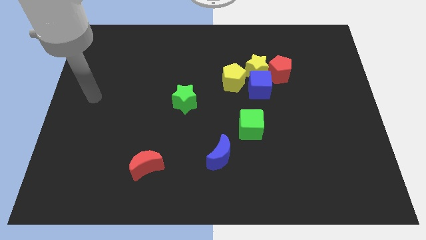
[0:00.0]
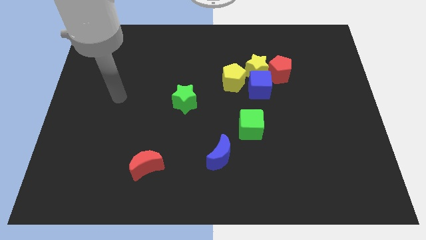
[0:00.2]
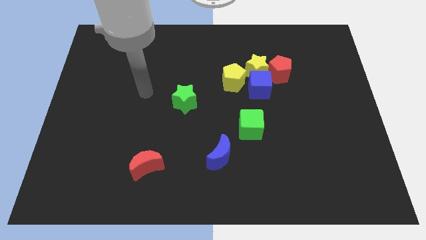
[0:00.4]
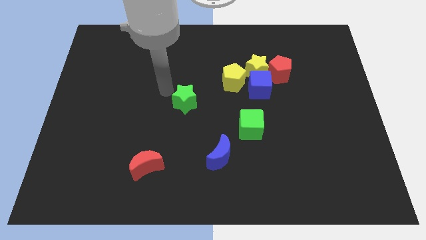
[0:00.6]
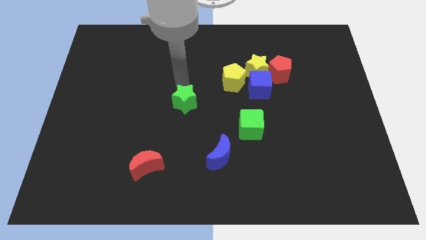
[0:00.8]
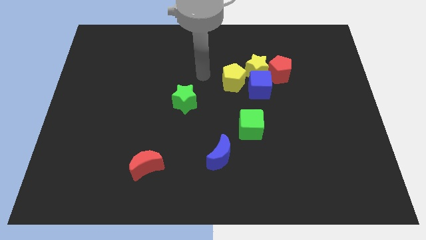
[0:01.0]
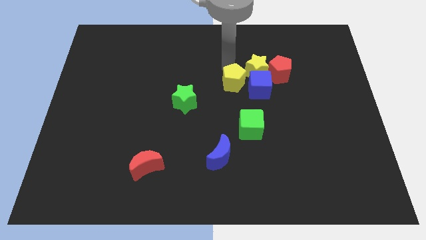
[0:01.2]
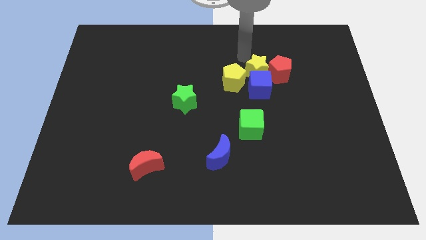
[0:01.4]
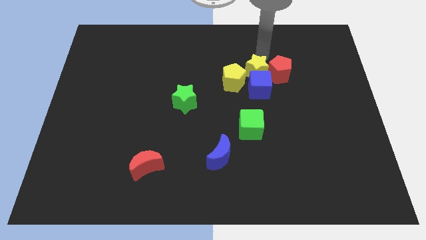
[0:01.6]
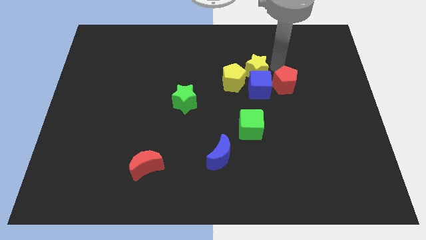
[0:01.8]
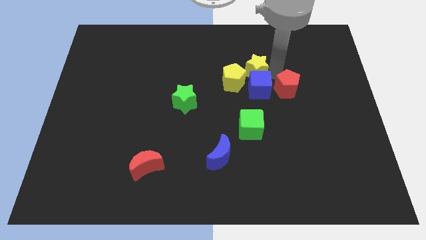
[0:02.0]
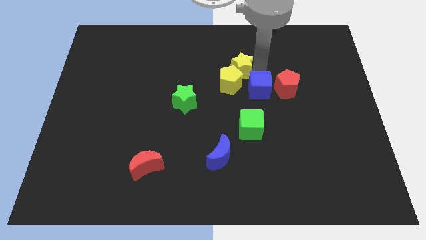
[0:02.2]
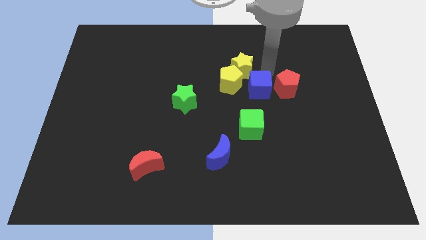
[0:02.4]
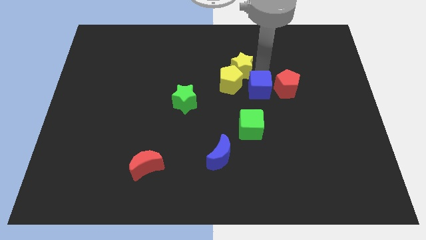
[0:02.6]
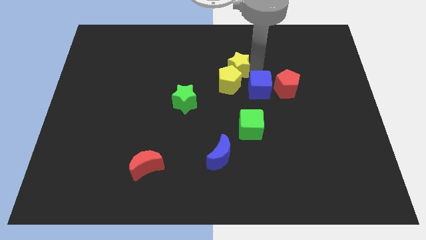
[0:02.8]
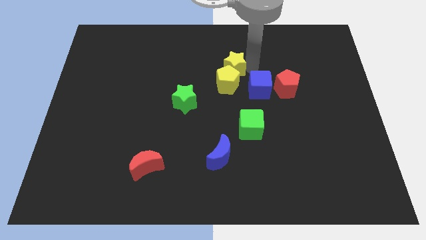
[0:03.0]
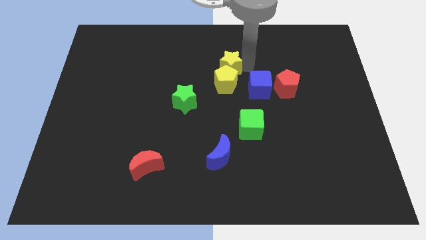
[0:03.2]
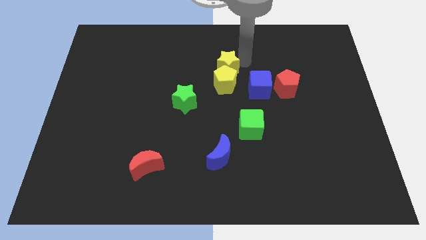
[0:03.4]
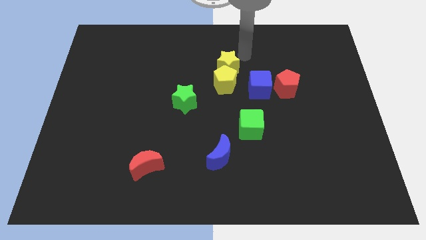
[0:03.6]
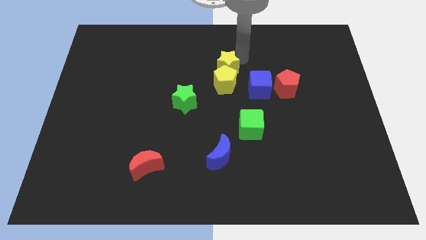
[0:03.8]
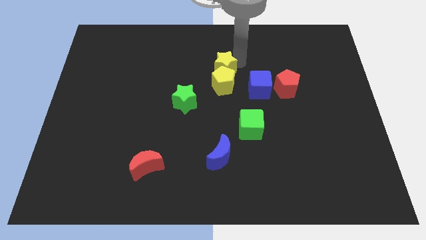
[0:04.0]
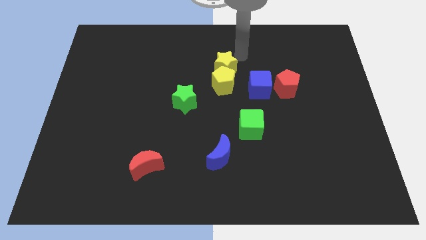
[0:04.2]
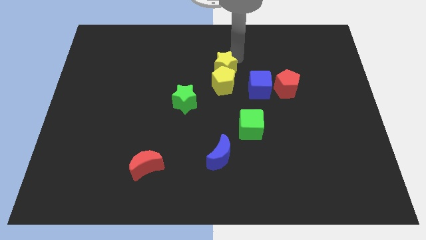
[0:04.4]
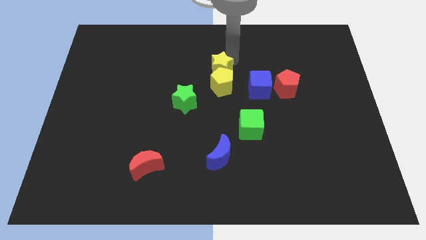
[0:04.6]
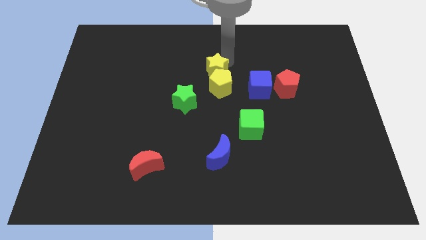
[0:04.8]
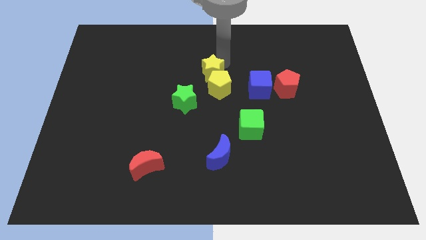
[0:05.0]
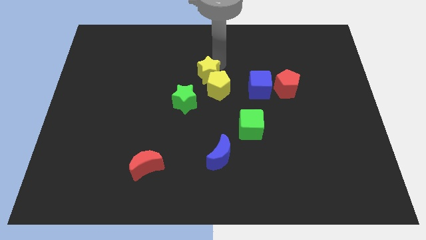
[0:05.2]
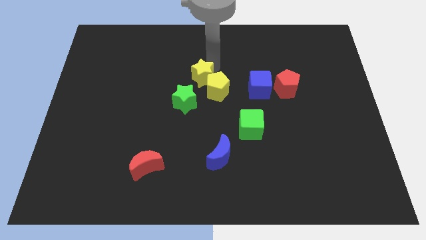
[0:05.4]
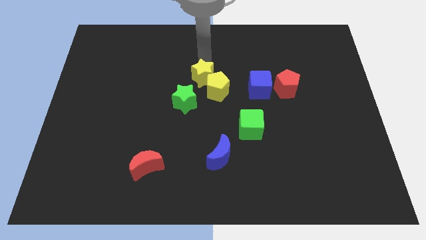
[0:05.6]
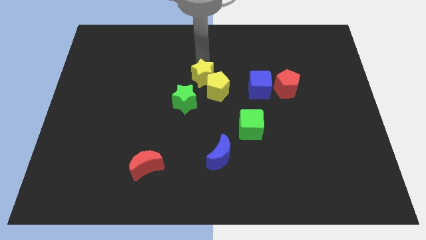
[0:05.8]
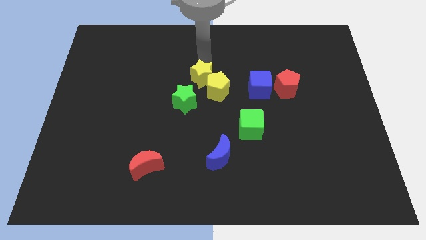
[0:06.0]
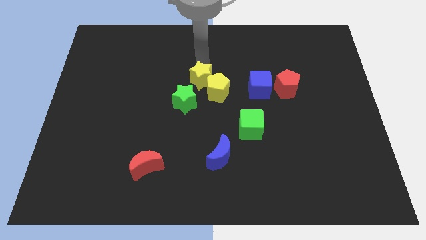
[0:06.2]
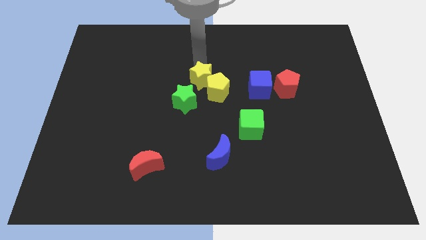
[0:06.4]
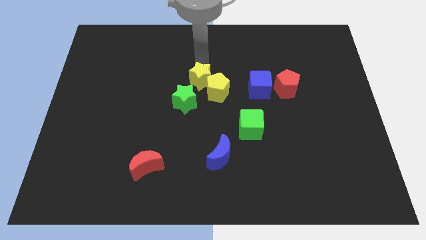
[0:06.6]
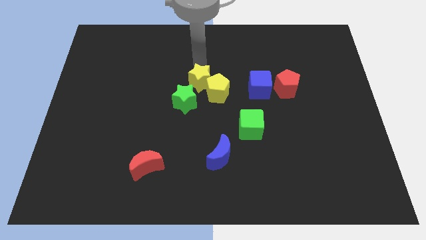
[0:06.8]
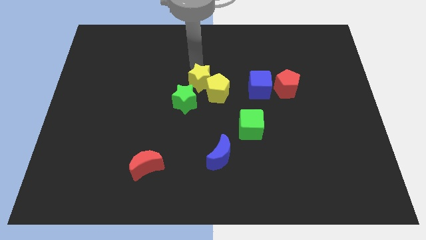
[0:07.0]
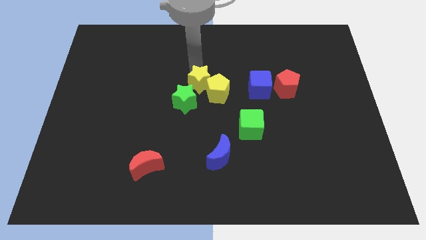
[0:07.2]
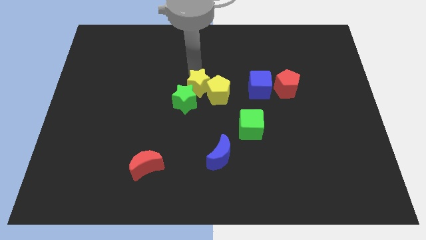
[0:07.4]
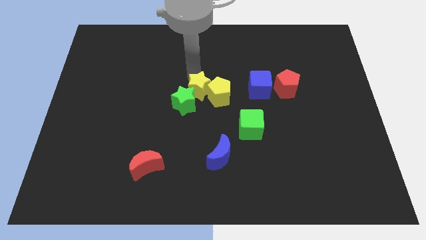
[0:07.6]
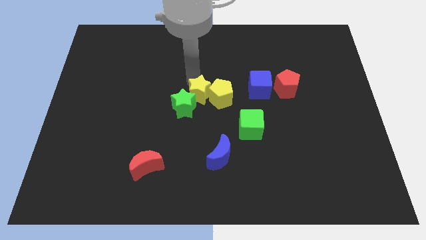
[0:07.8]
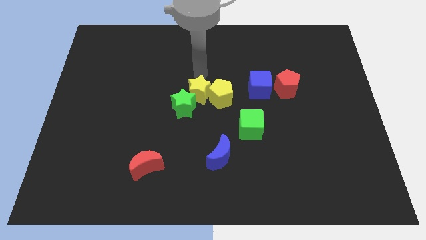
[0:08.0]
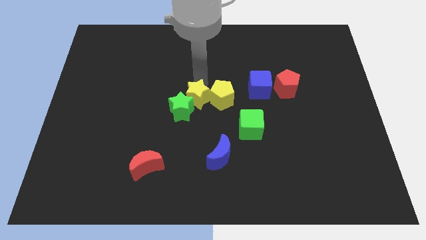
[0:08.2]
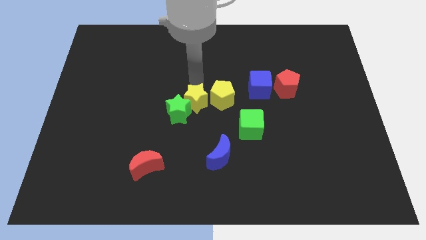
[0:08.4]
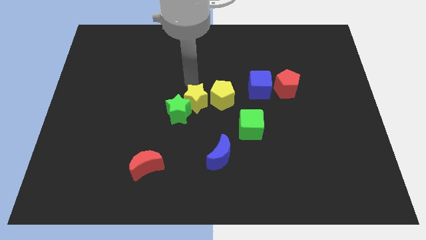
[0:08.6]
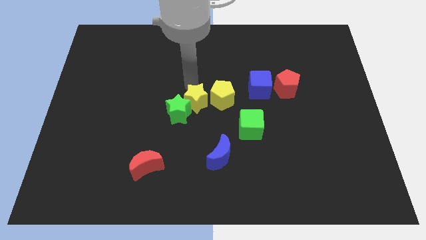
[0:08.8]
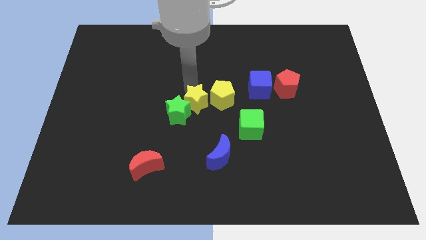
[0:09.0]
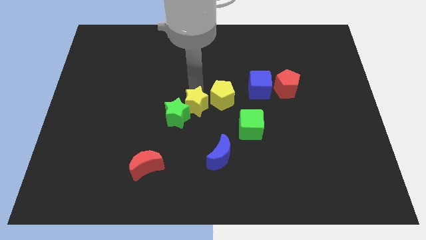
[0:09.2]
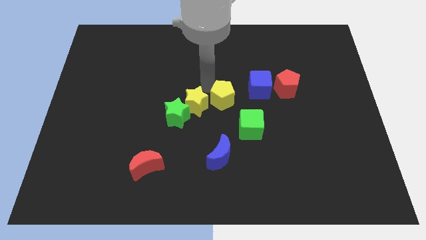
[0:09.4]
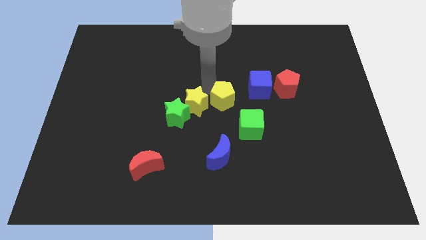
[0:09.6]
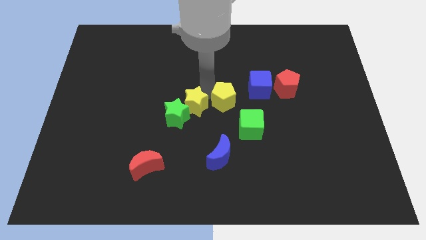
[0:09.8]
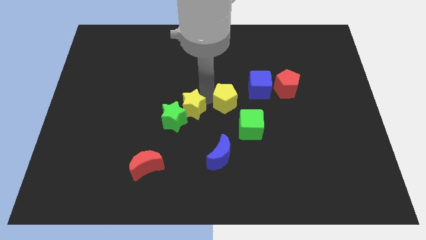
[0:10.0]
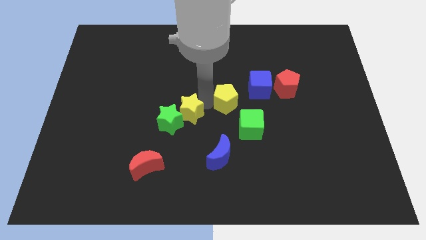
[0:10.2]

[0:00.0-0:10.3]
move the yellow star diagonally downwards and to the left

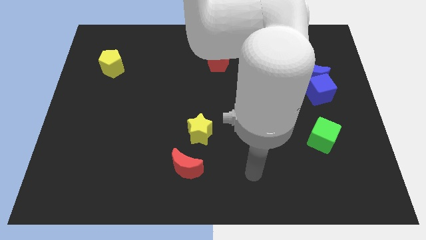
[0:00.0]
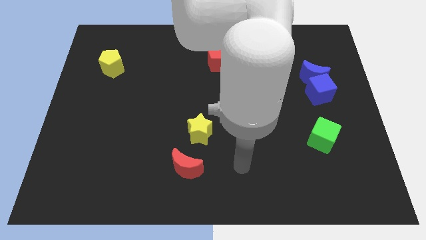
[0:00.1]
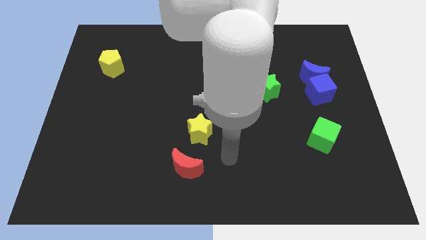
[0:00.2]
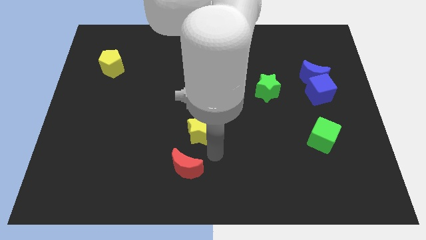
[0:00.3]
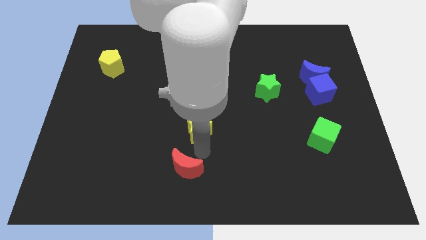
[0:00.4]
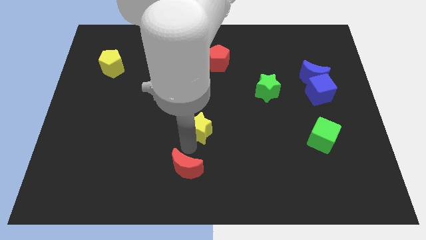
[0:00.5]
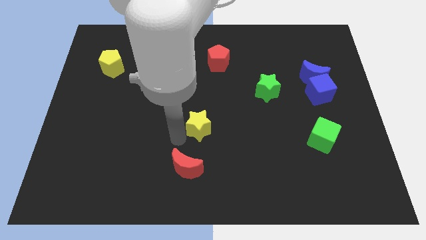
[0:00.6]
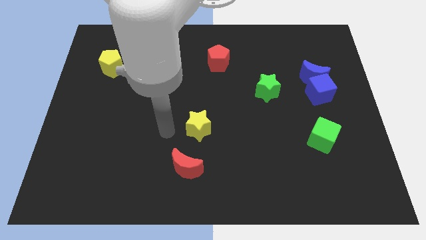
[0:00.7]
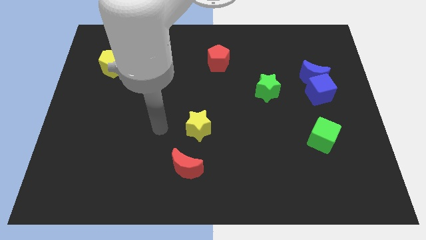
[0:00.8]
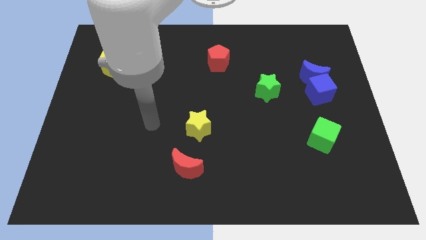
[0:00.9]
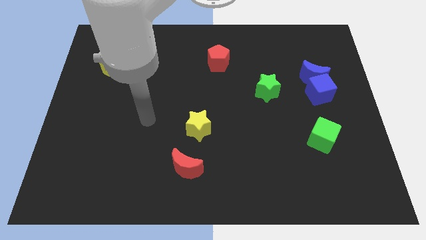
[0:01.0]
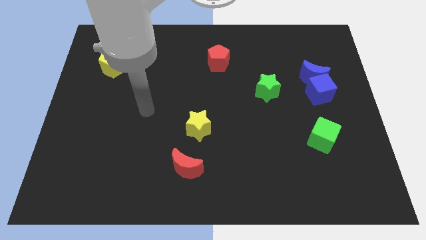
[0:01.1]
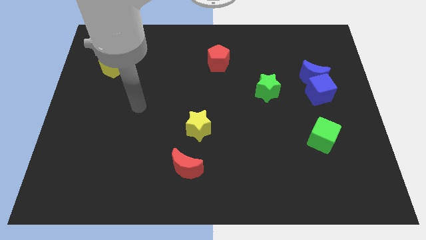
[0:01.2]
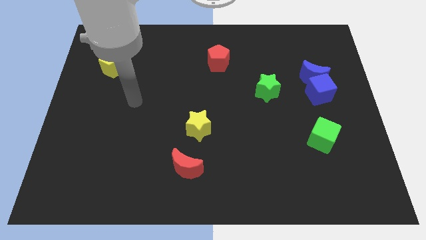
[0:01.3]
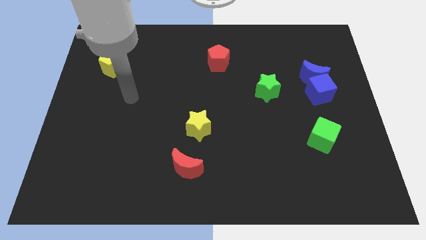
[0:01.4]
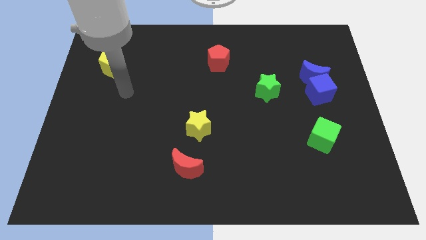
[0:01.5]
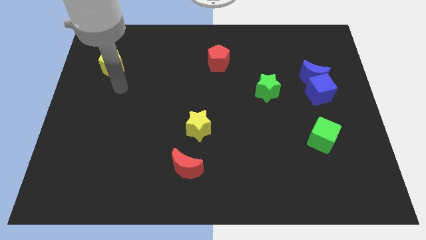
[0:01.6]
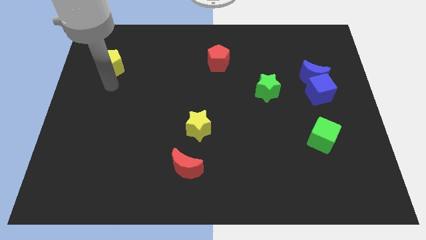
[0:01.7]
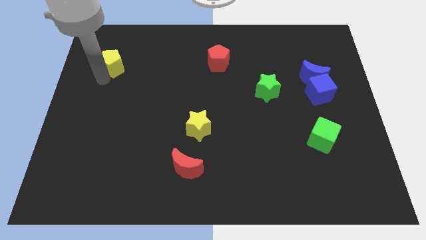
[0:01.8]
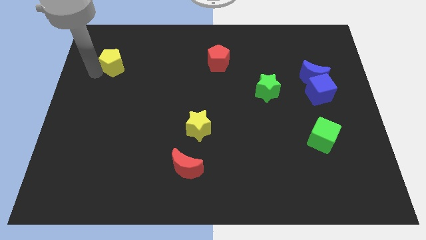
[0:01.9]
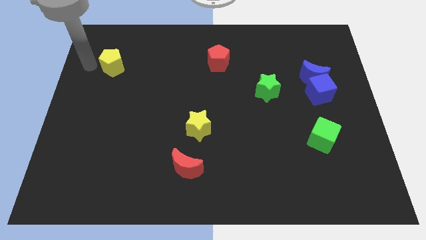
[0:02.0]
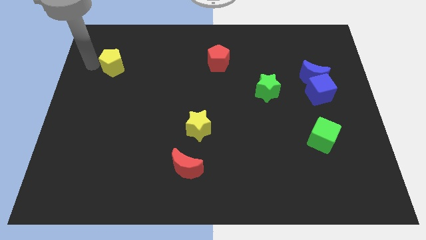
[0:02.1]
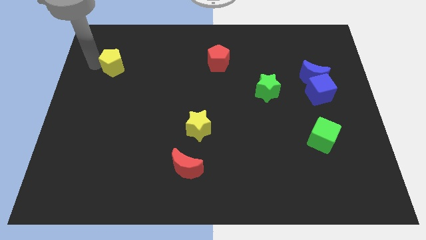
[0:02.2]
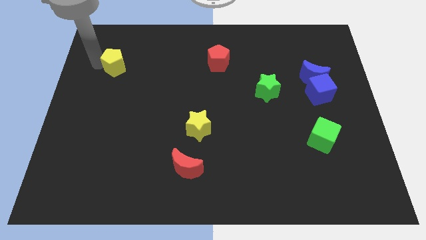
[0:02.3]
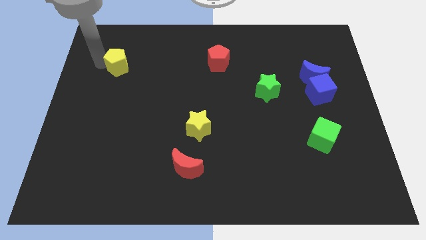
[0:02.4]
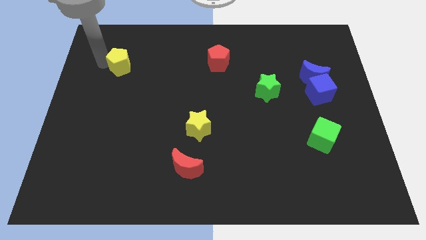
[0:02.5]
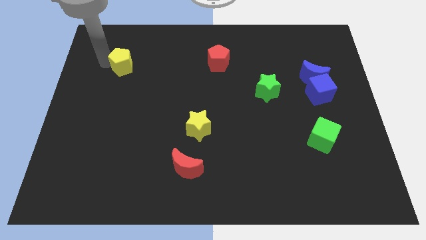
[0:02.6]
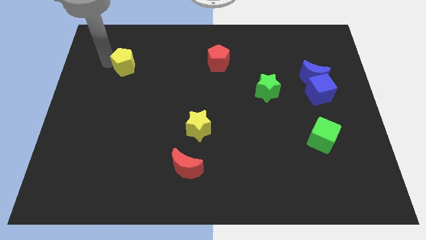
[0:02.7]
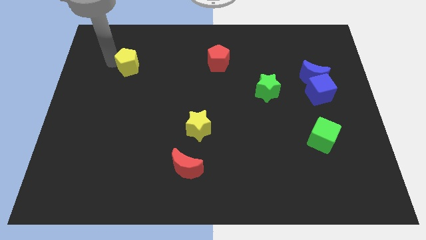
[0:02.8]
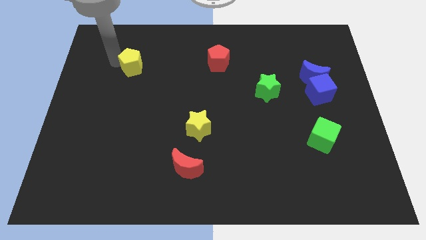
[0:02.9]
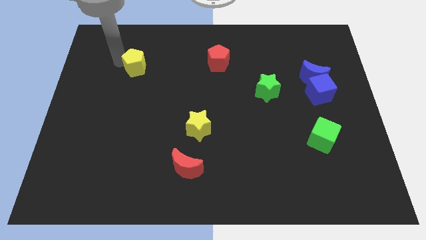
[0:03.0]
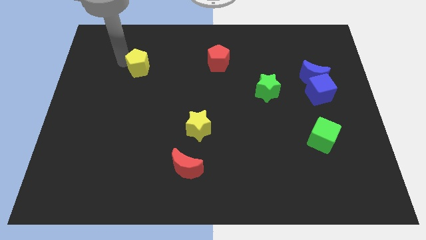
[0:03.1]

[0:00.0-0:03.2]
move the yellow pentagon right a bit
